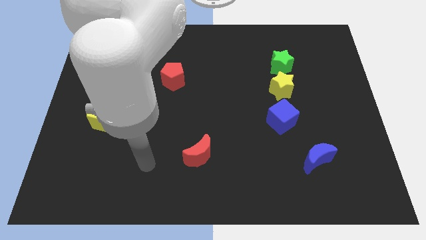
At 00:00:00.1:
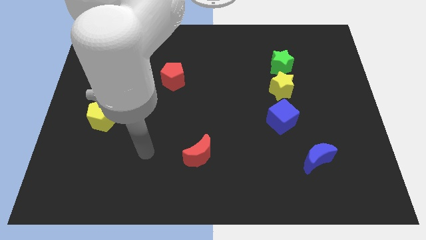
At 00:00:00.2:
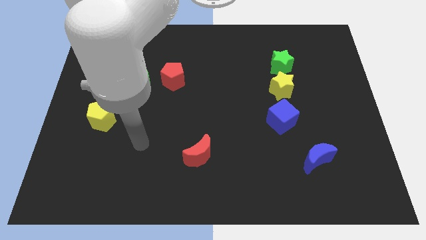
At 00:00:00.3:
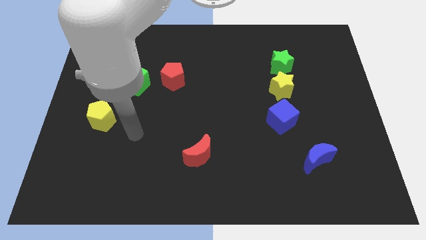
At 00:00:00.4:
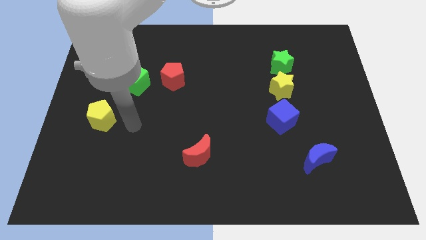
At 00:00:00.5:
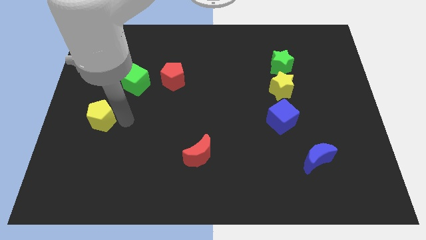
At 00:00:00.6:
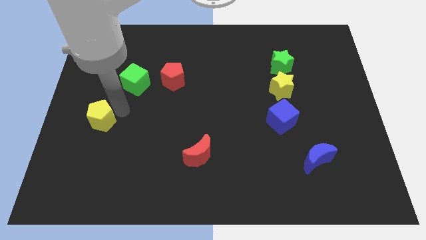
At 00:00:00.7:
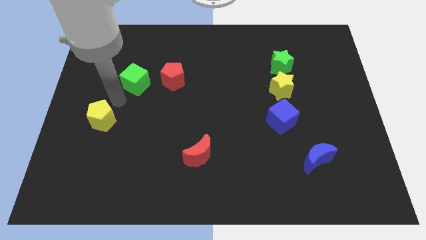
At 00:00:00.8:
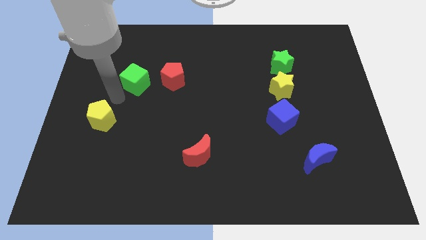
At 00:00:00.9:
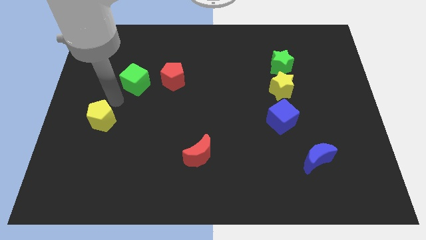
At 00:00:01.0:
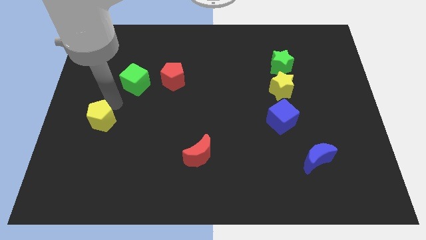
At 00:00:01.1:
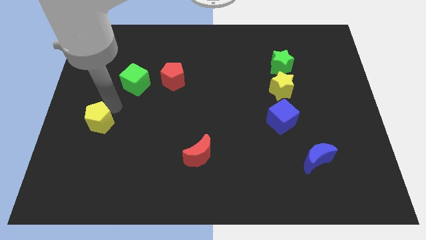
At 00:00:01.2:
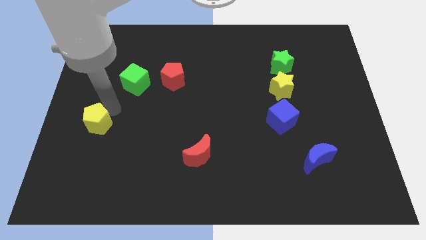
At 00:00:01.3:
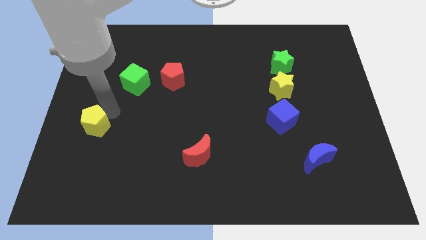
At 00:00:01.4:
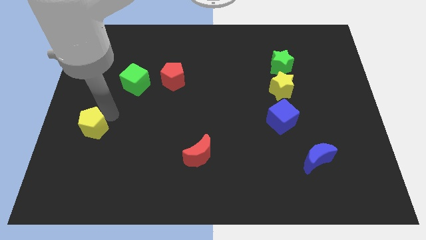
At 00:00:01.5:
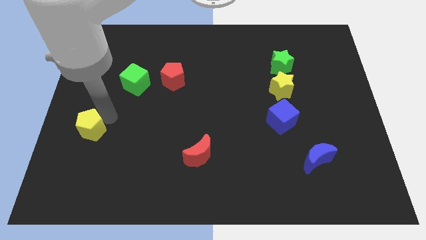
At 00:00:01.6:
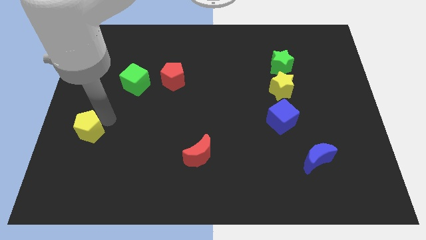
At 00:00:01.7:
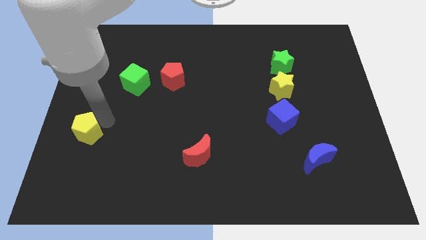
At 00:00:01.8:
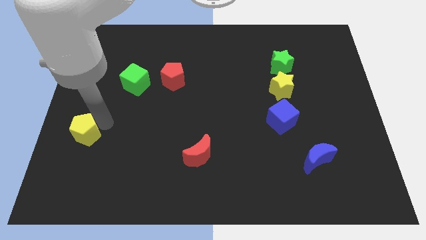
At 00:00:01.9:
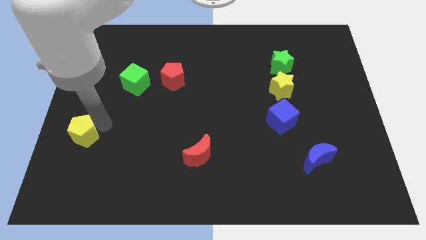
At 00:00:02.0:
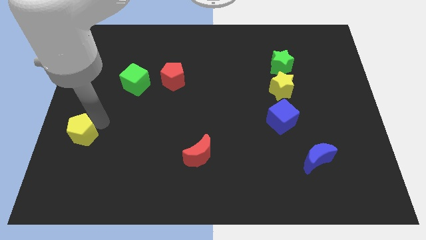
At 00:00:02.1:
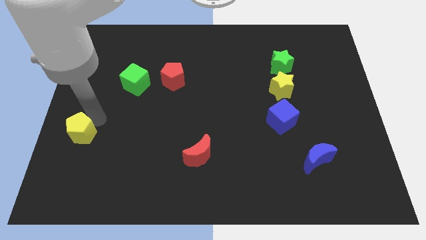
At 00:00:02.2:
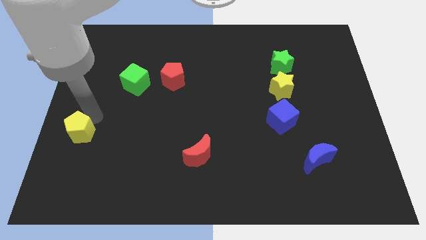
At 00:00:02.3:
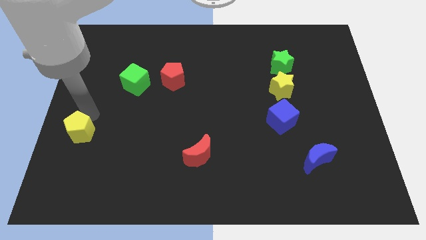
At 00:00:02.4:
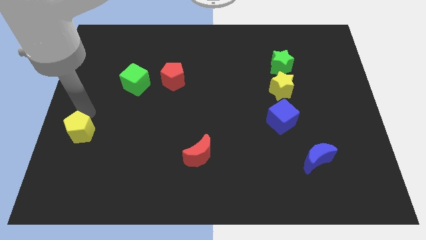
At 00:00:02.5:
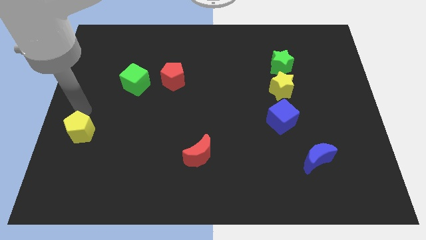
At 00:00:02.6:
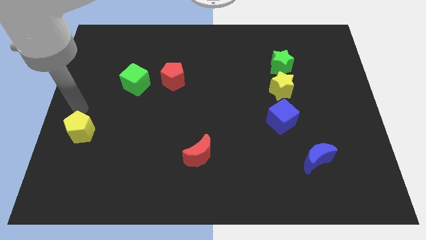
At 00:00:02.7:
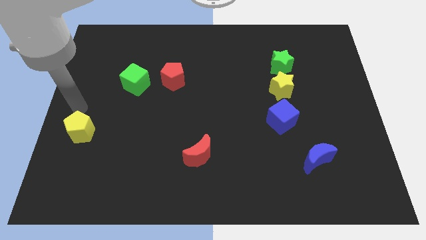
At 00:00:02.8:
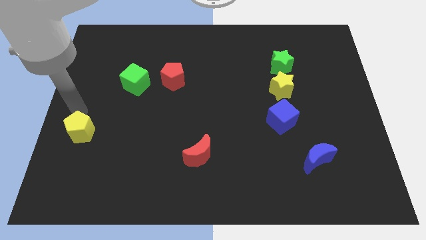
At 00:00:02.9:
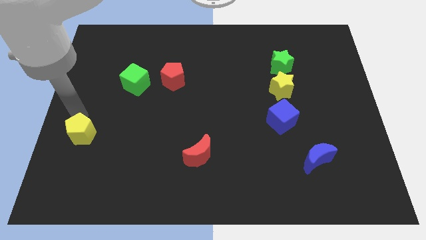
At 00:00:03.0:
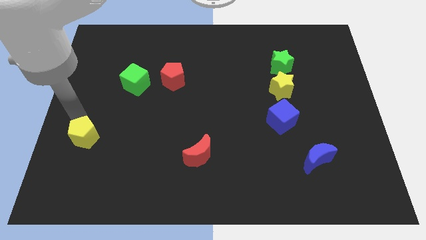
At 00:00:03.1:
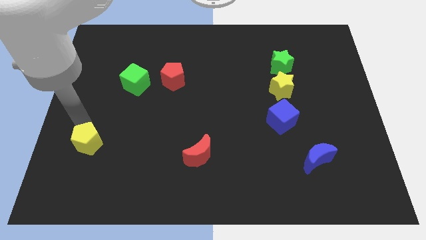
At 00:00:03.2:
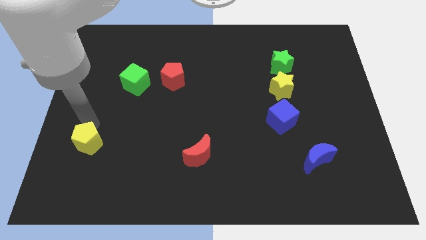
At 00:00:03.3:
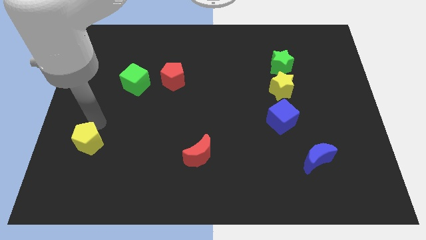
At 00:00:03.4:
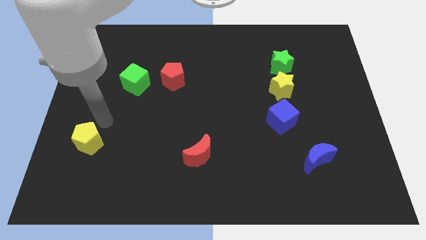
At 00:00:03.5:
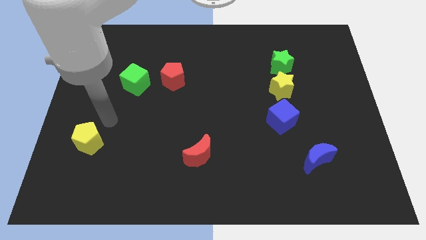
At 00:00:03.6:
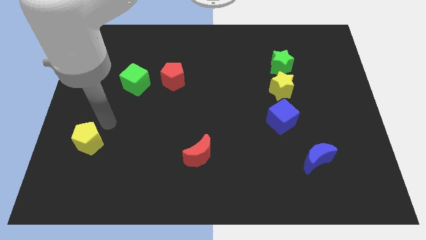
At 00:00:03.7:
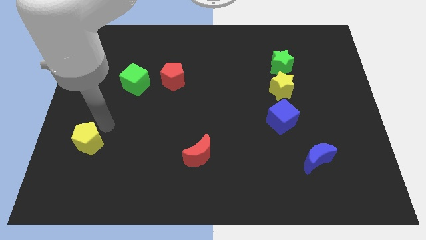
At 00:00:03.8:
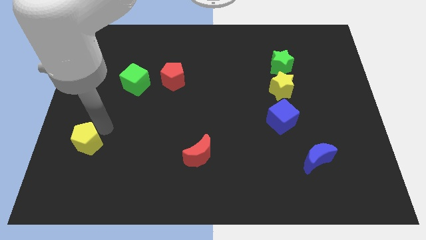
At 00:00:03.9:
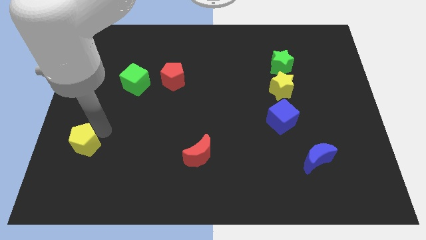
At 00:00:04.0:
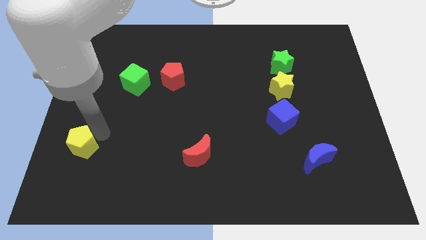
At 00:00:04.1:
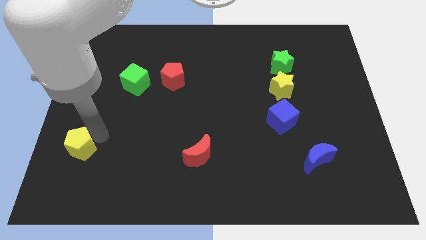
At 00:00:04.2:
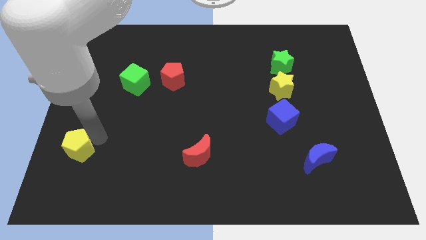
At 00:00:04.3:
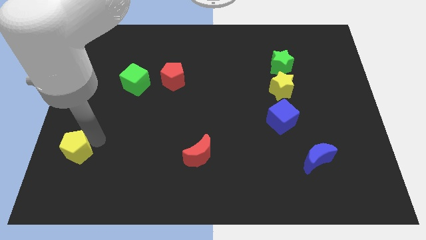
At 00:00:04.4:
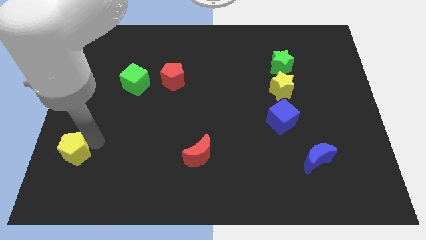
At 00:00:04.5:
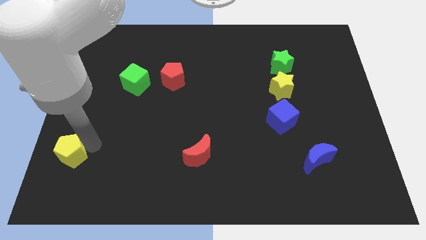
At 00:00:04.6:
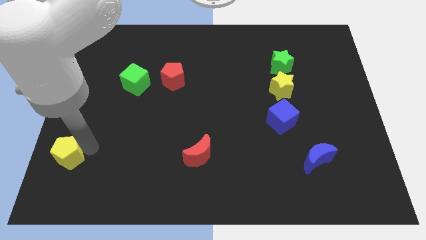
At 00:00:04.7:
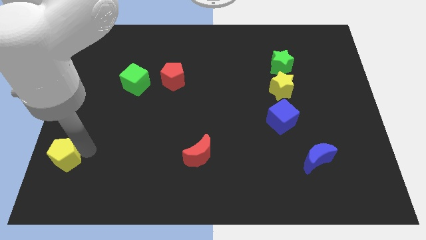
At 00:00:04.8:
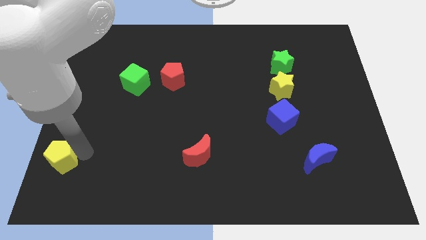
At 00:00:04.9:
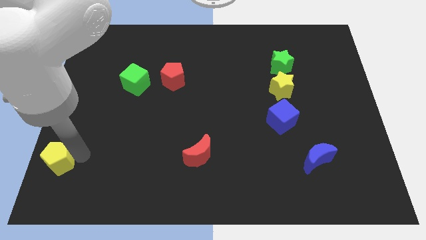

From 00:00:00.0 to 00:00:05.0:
move the yellow pentagon to the bottom left corner
